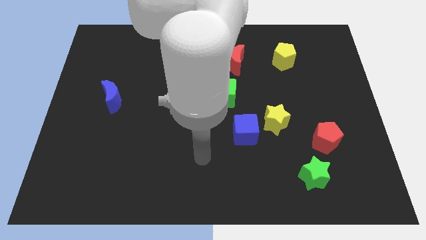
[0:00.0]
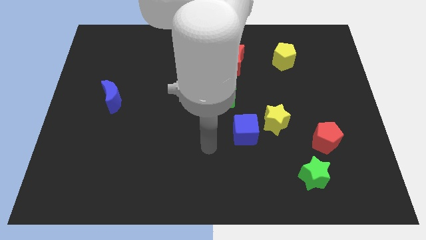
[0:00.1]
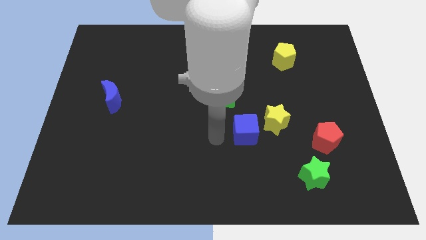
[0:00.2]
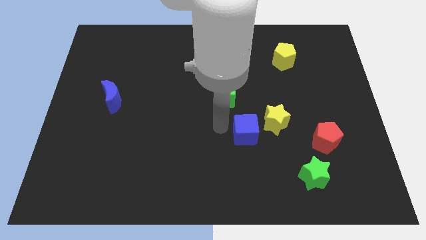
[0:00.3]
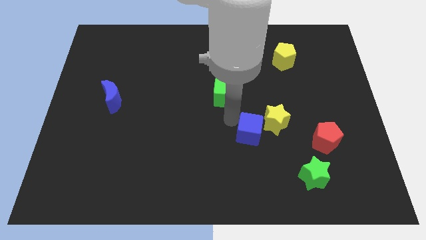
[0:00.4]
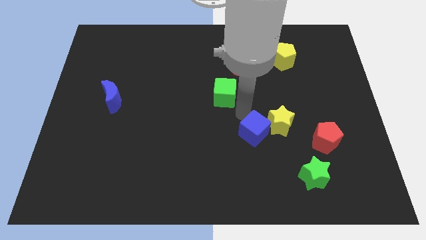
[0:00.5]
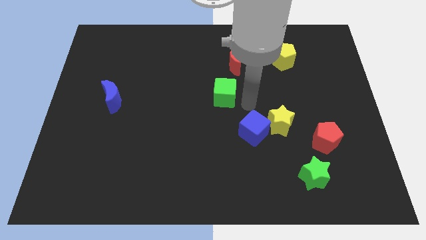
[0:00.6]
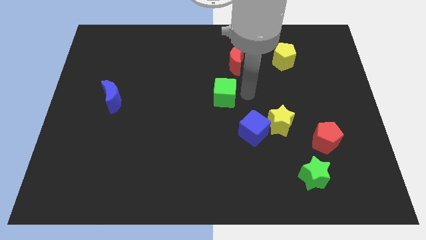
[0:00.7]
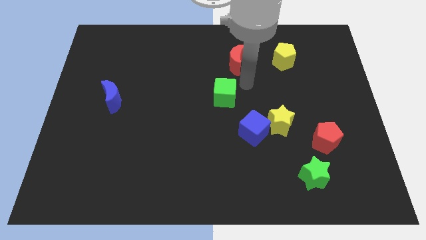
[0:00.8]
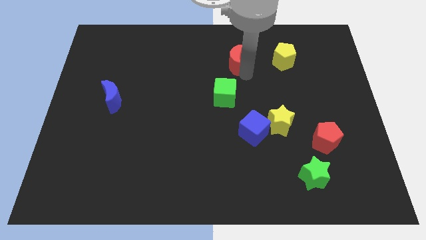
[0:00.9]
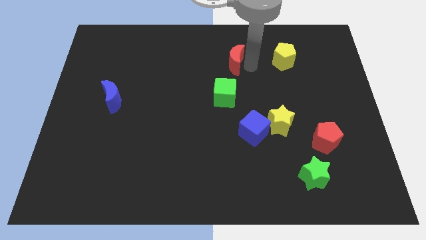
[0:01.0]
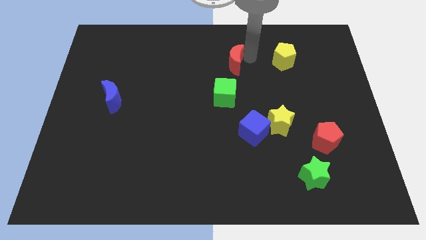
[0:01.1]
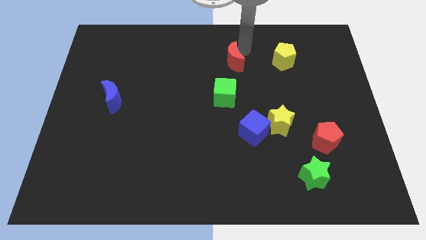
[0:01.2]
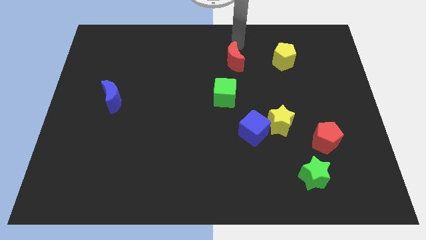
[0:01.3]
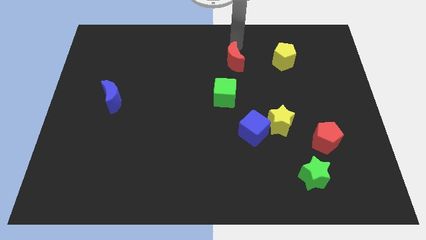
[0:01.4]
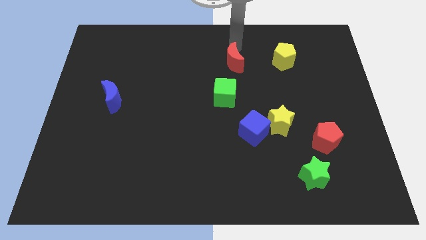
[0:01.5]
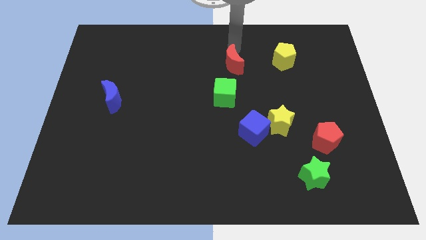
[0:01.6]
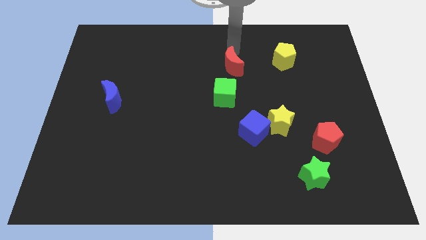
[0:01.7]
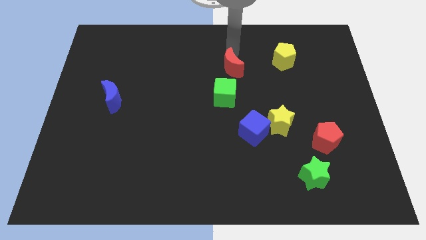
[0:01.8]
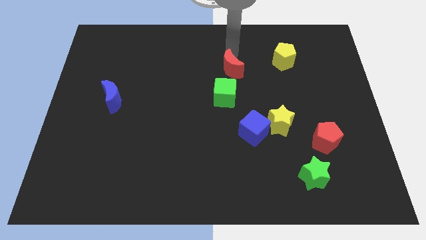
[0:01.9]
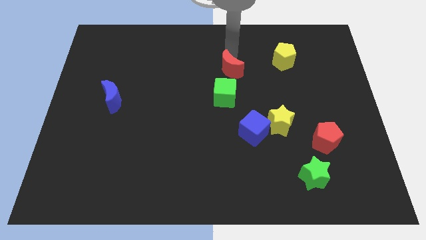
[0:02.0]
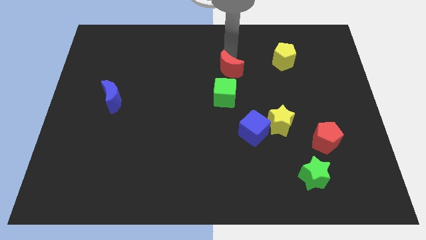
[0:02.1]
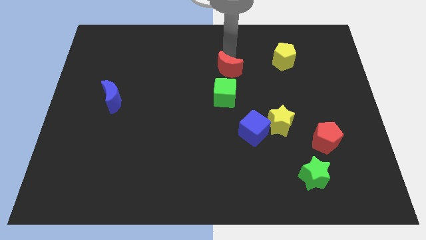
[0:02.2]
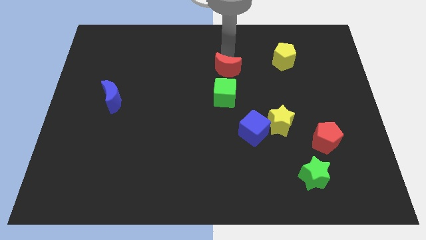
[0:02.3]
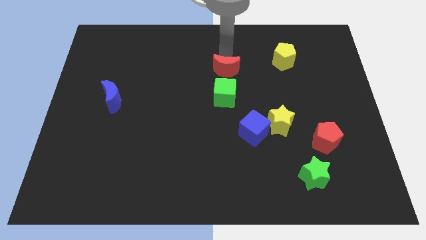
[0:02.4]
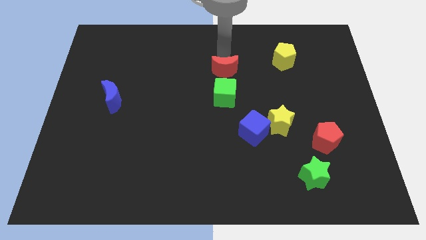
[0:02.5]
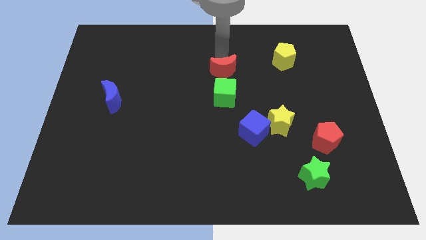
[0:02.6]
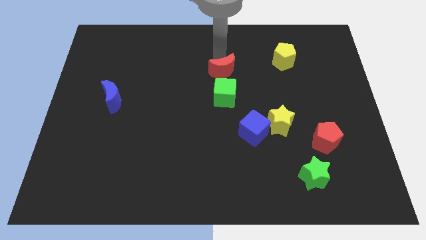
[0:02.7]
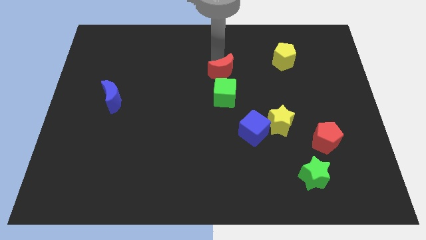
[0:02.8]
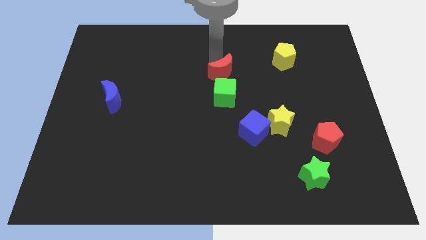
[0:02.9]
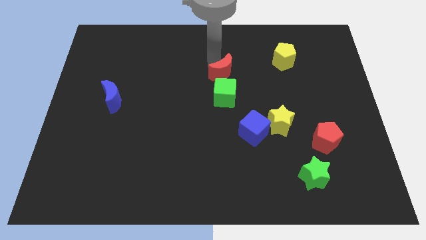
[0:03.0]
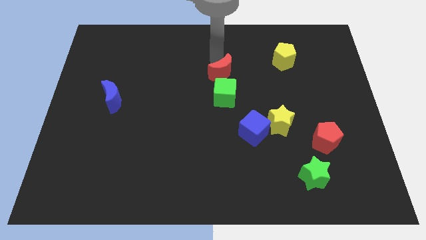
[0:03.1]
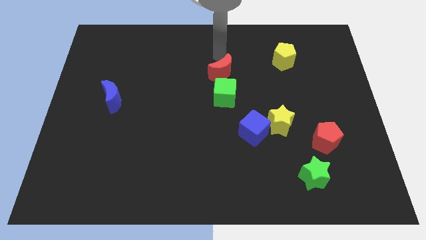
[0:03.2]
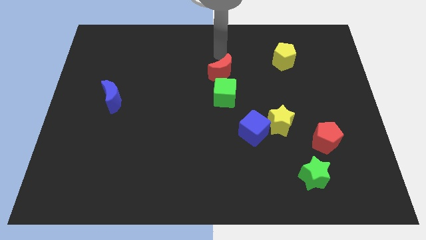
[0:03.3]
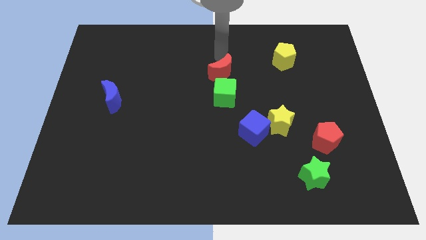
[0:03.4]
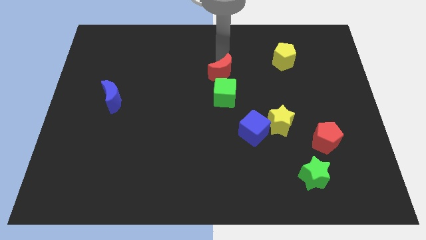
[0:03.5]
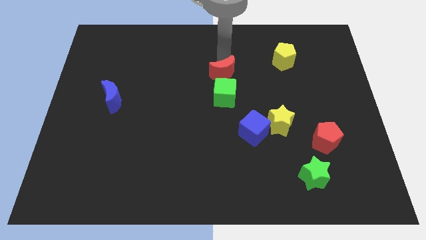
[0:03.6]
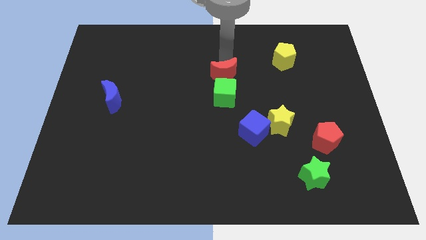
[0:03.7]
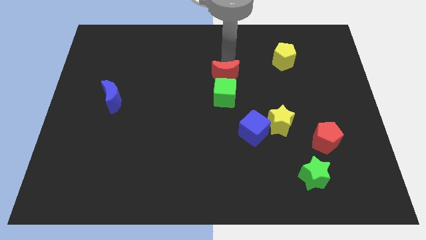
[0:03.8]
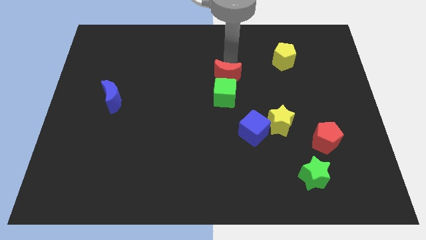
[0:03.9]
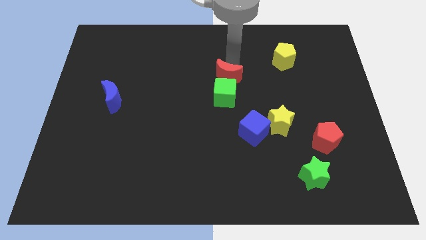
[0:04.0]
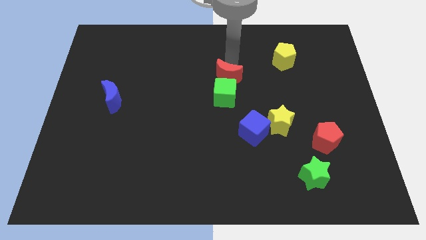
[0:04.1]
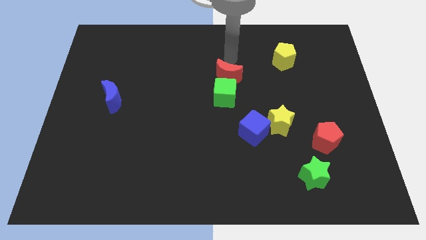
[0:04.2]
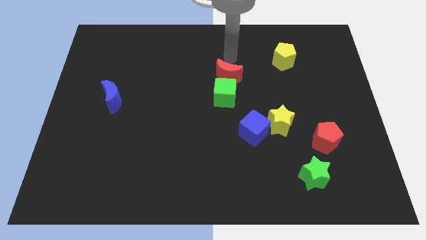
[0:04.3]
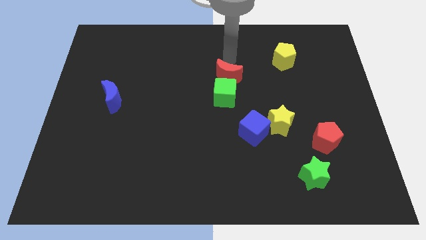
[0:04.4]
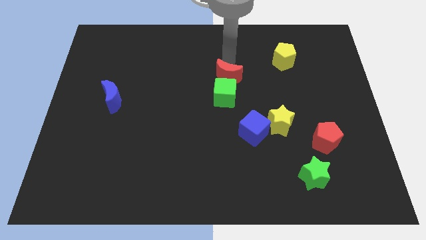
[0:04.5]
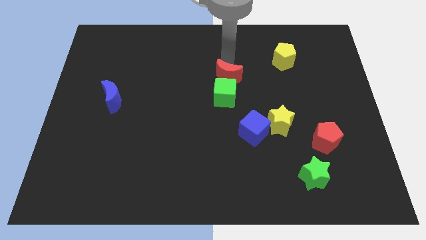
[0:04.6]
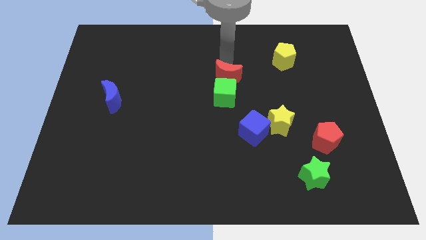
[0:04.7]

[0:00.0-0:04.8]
move the red moon towards the green cube

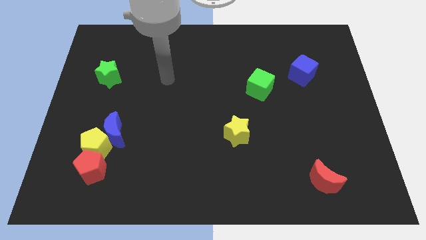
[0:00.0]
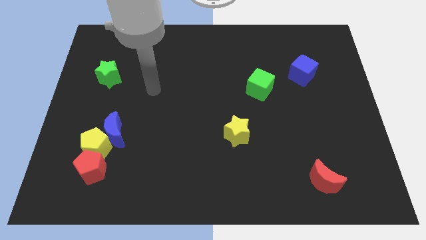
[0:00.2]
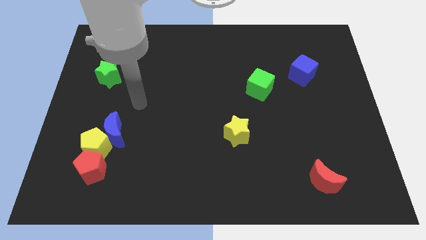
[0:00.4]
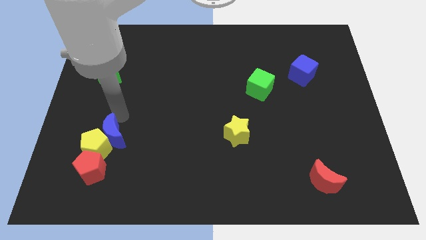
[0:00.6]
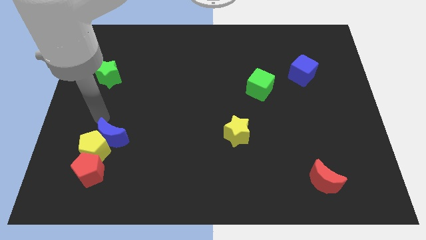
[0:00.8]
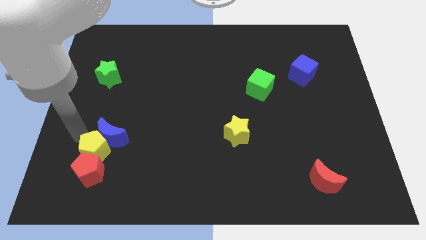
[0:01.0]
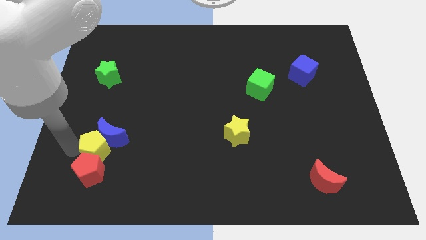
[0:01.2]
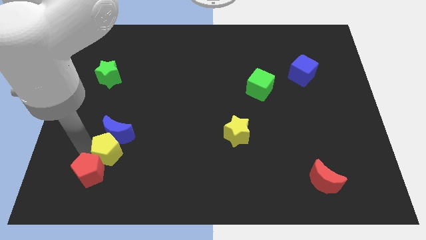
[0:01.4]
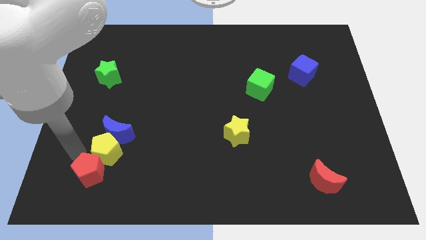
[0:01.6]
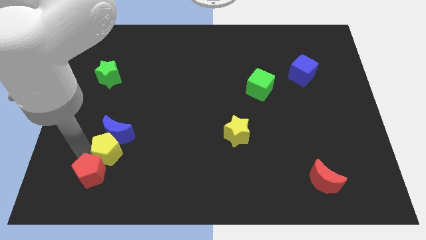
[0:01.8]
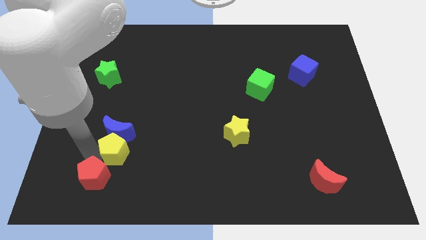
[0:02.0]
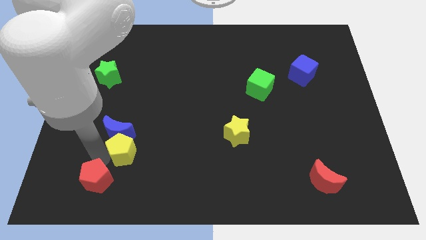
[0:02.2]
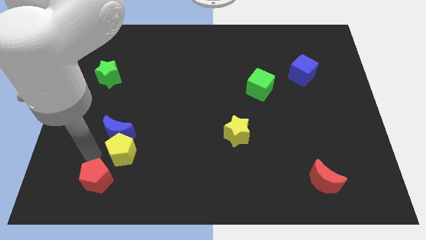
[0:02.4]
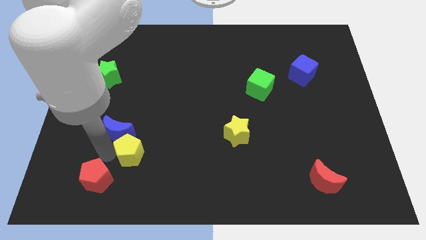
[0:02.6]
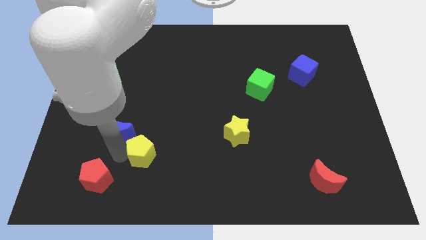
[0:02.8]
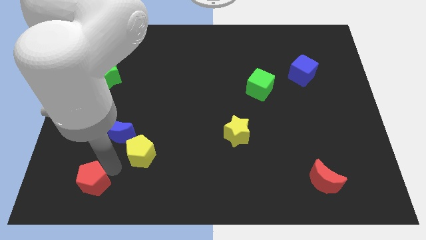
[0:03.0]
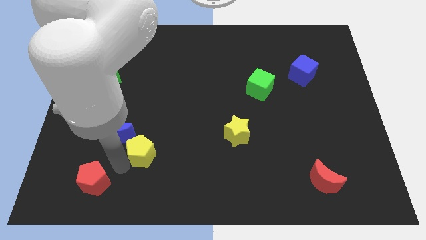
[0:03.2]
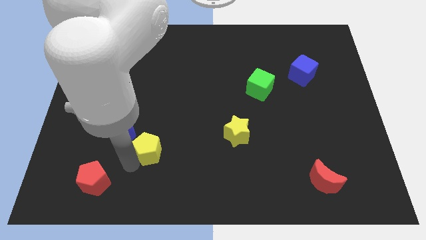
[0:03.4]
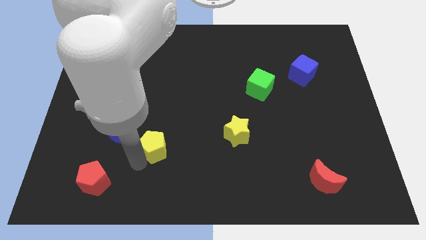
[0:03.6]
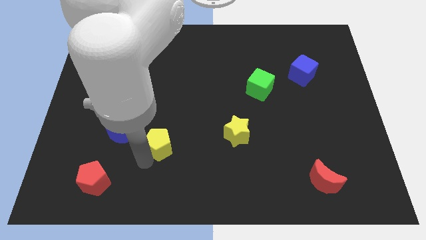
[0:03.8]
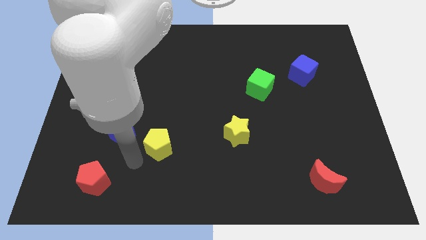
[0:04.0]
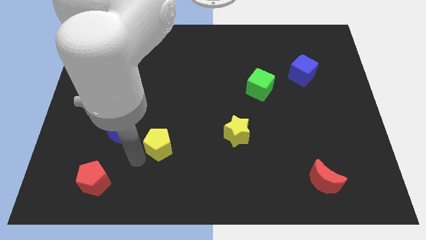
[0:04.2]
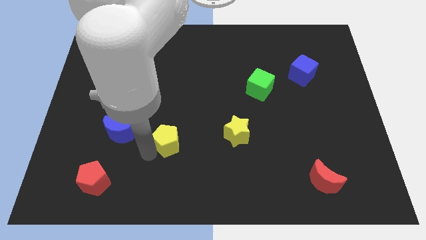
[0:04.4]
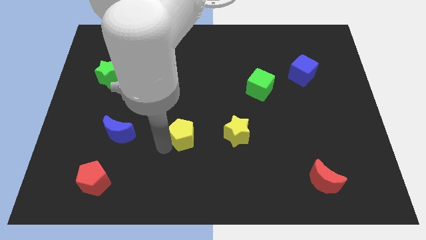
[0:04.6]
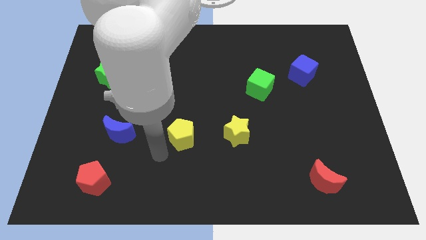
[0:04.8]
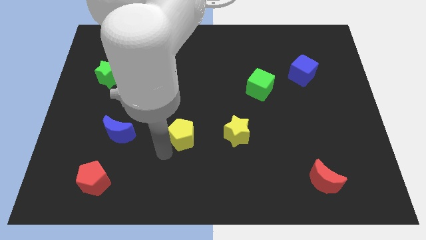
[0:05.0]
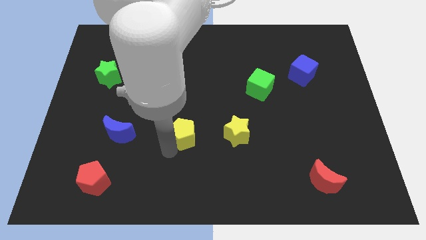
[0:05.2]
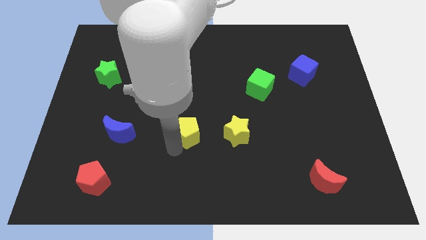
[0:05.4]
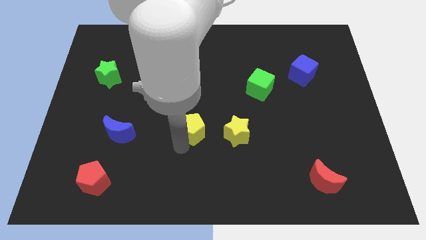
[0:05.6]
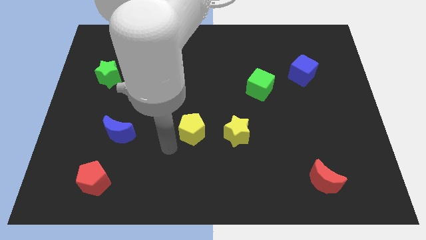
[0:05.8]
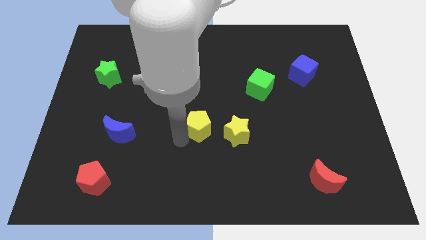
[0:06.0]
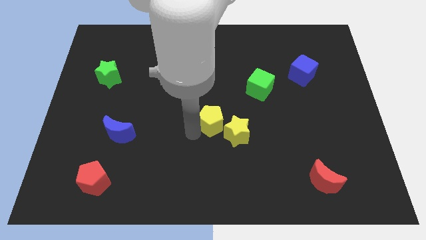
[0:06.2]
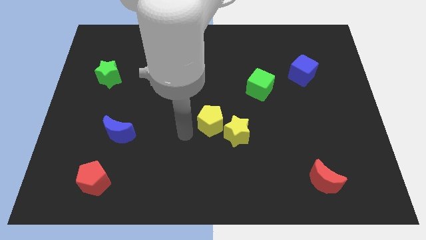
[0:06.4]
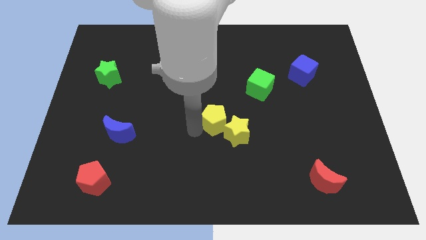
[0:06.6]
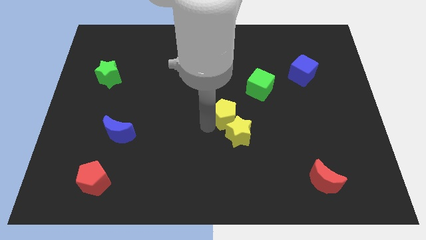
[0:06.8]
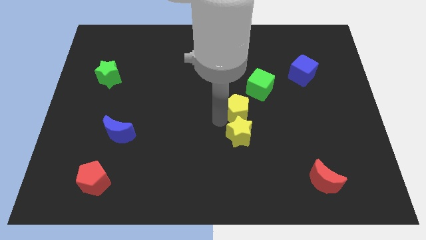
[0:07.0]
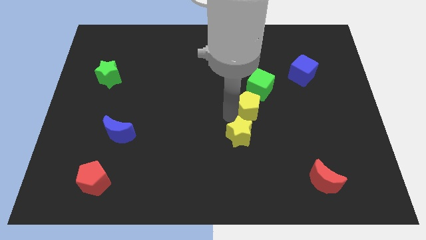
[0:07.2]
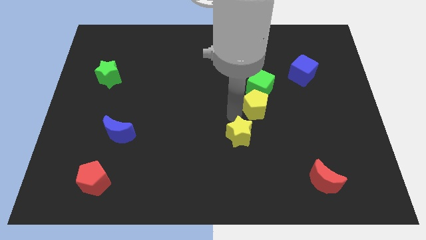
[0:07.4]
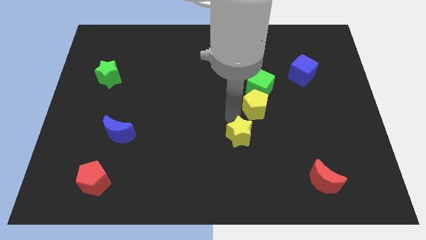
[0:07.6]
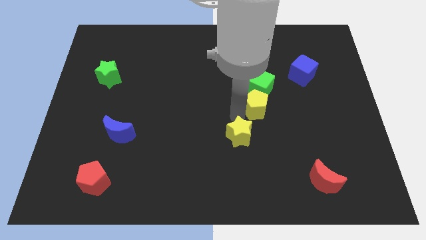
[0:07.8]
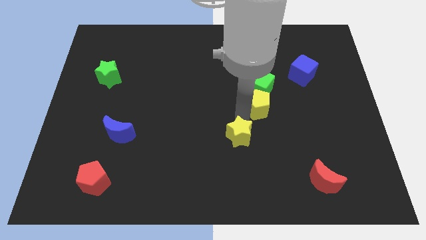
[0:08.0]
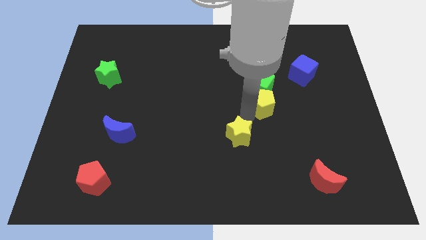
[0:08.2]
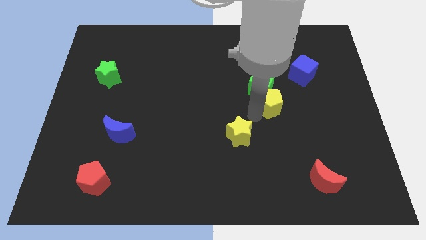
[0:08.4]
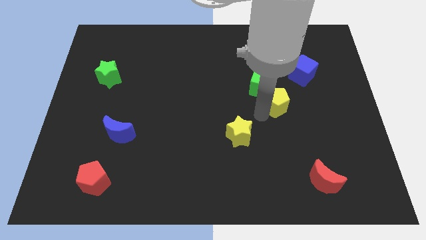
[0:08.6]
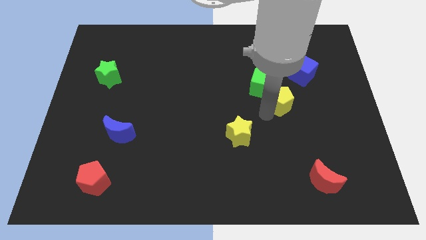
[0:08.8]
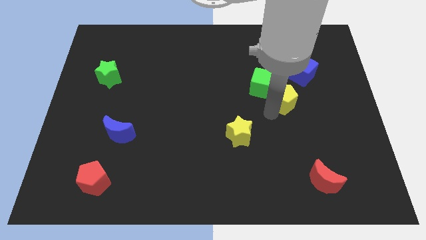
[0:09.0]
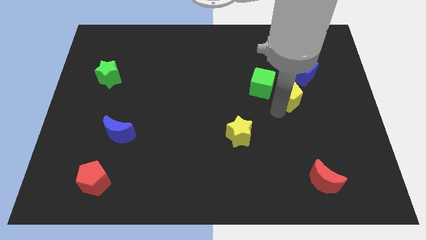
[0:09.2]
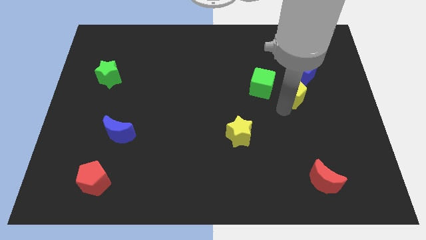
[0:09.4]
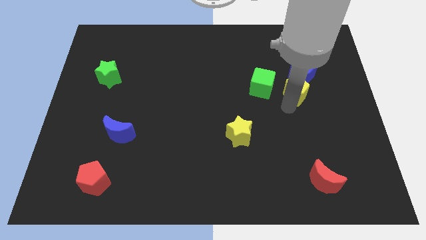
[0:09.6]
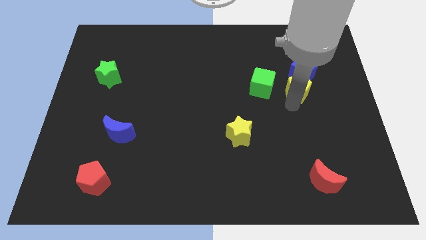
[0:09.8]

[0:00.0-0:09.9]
move the yellow pentagon to the blue cube
